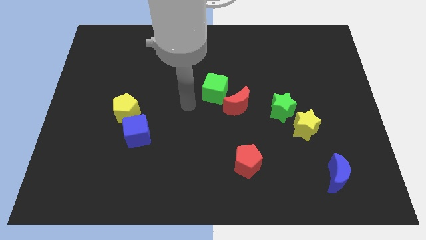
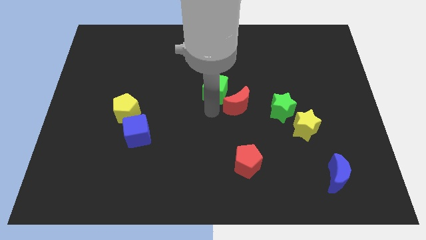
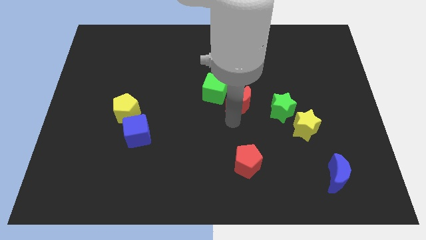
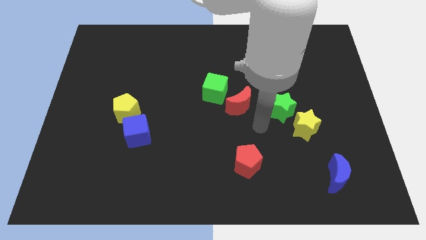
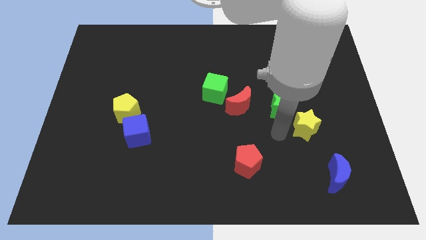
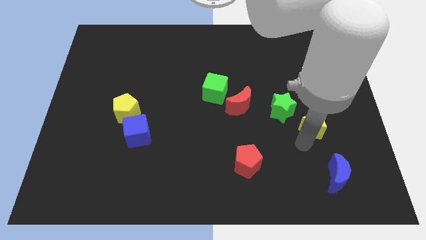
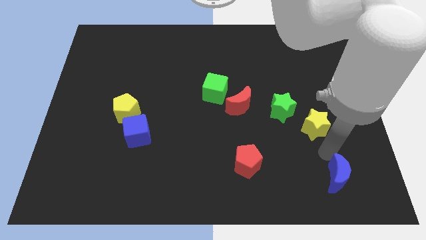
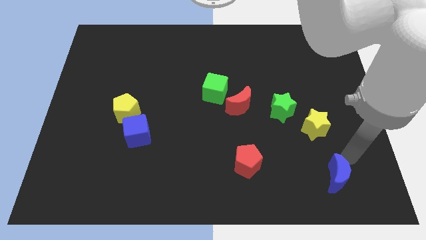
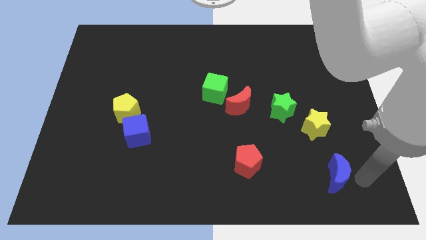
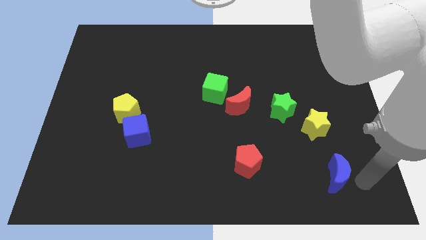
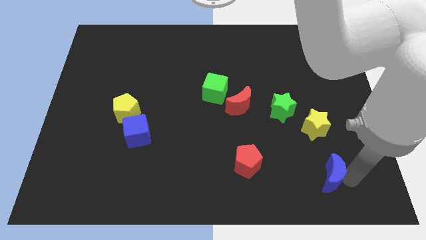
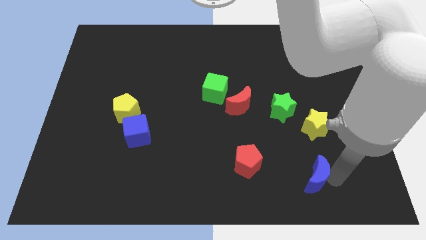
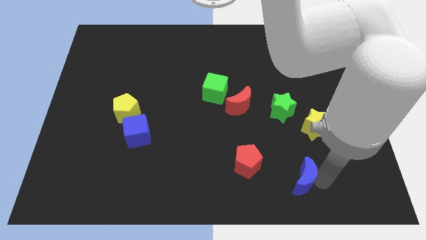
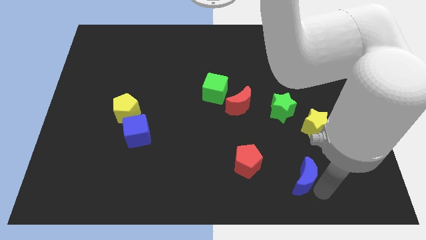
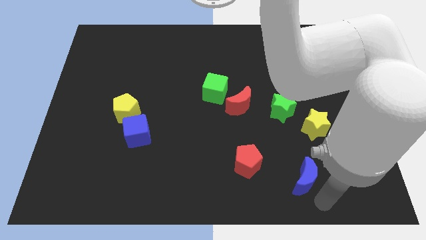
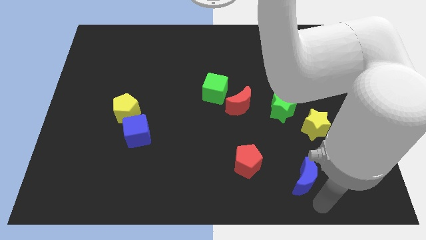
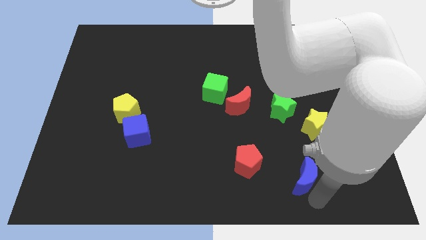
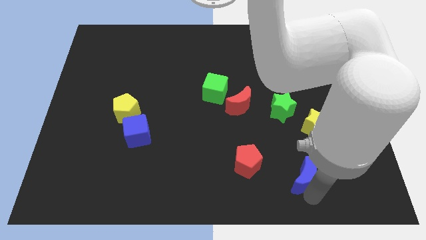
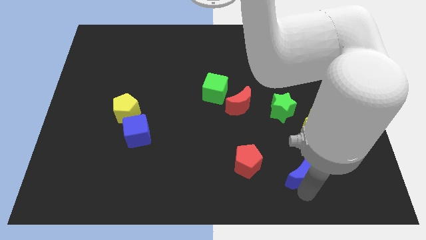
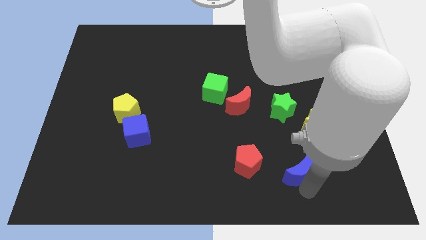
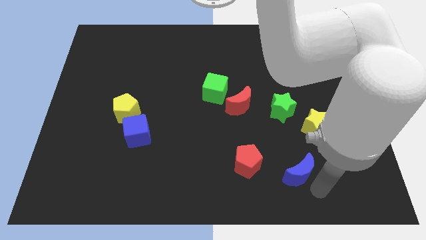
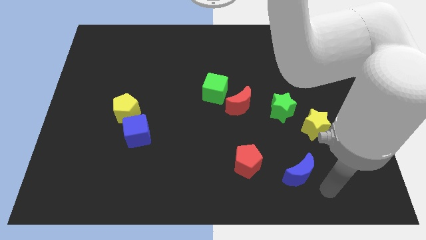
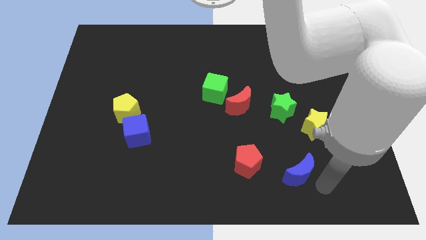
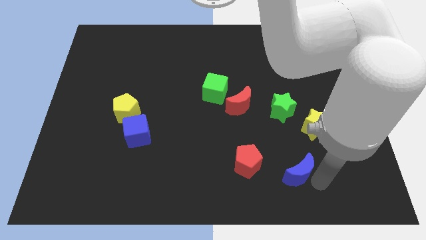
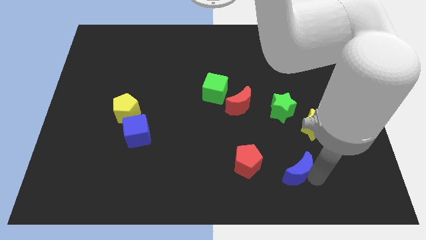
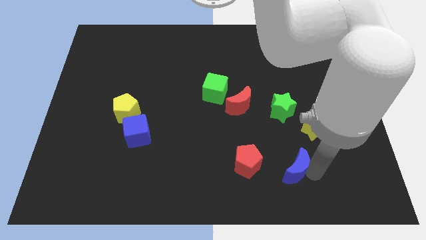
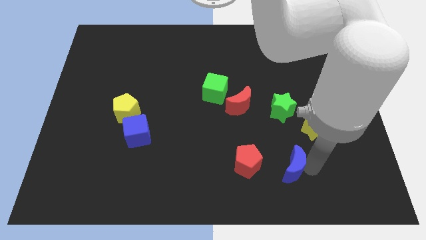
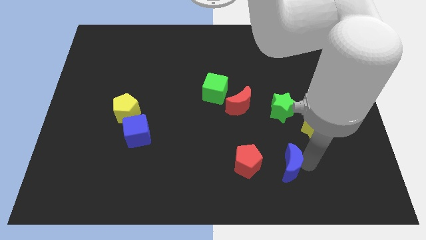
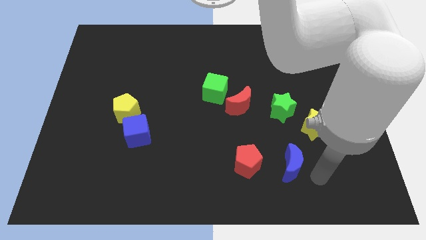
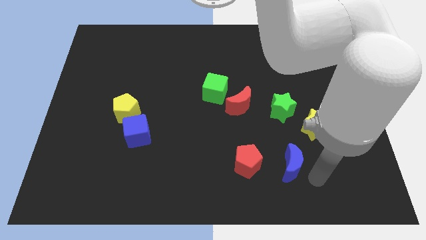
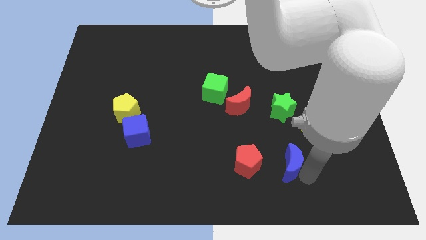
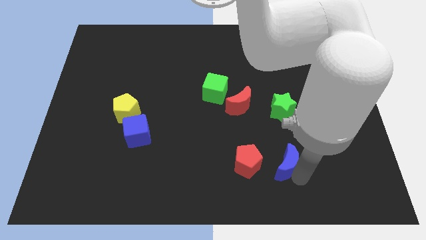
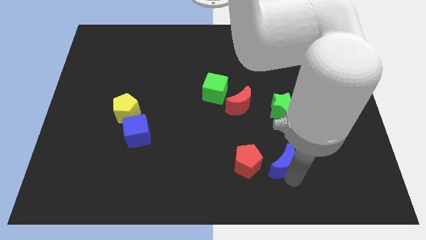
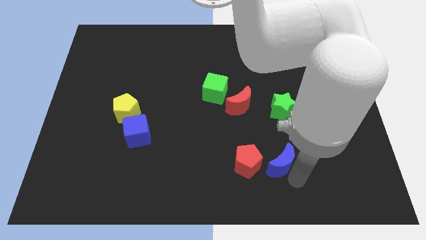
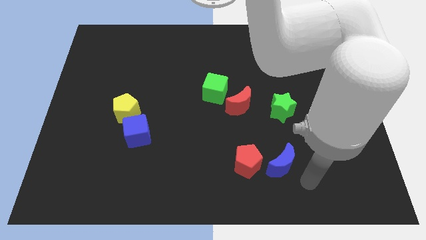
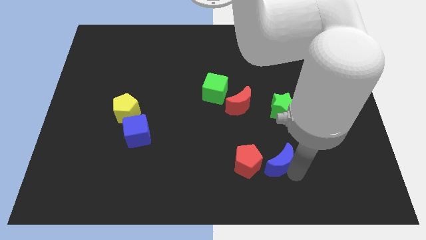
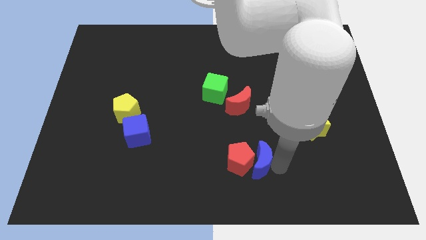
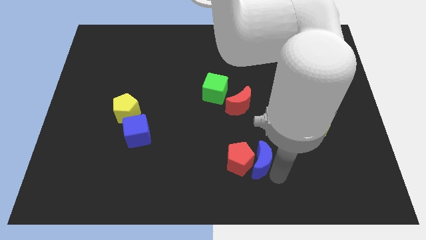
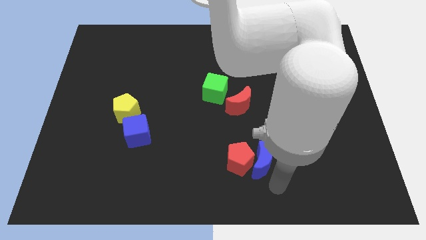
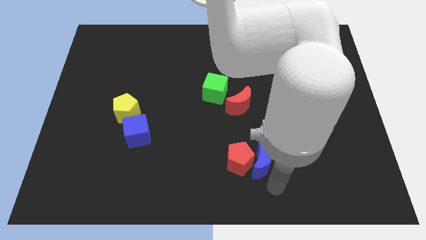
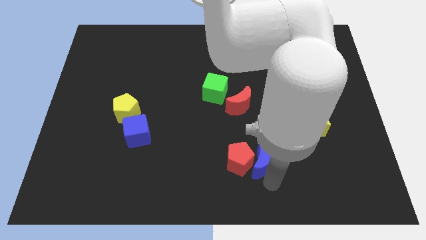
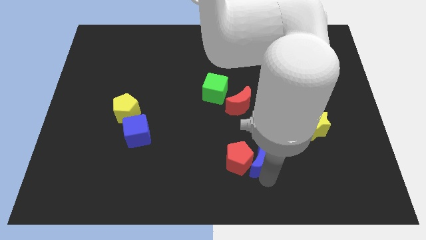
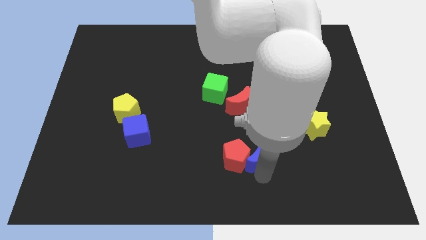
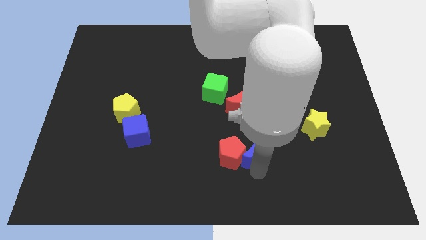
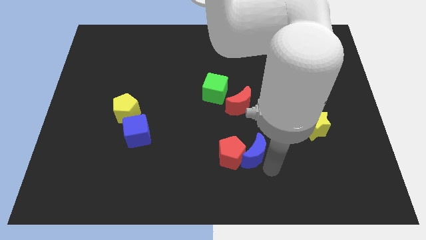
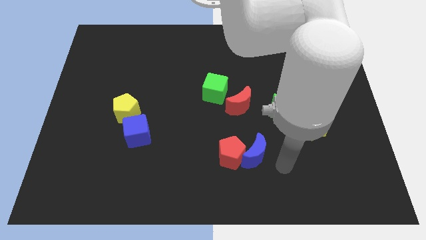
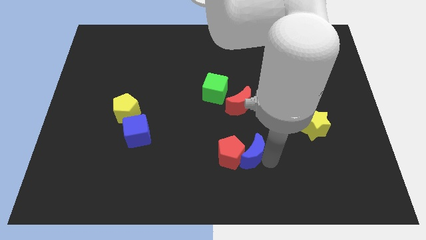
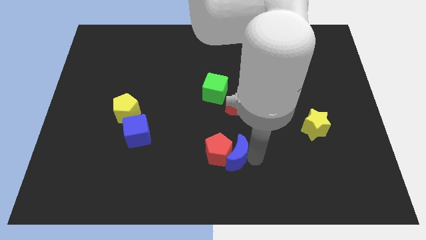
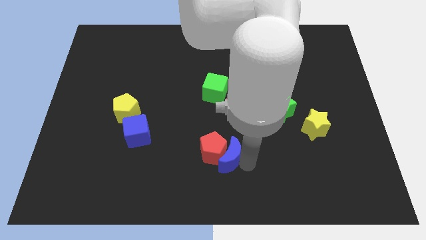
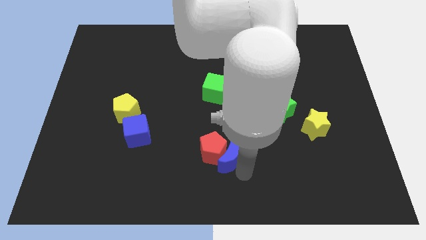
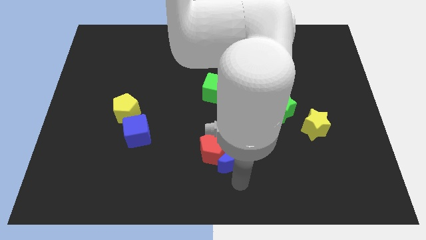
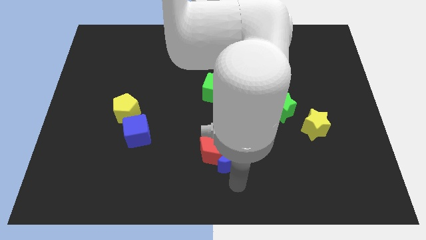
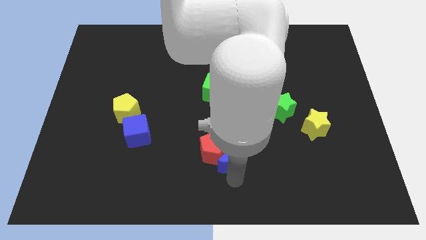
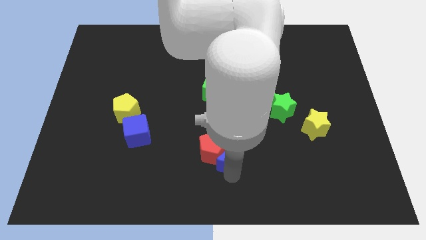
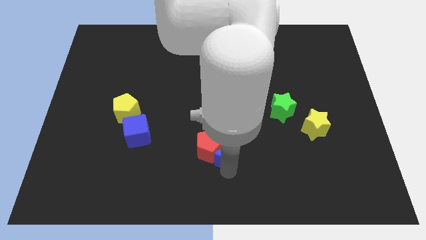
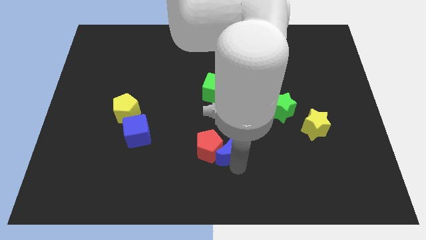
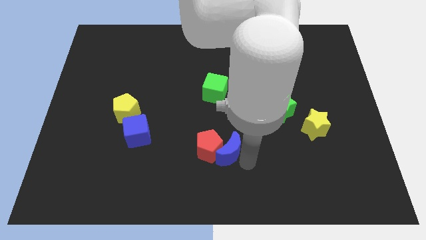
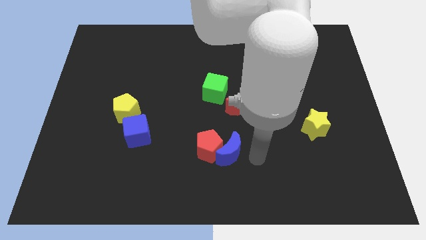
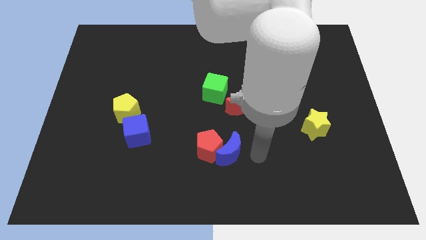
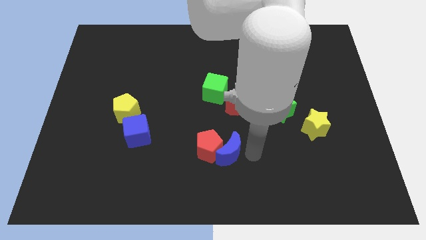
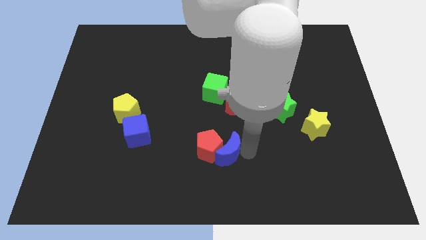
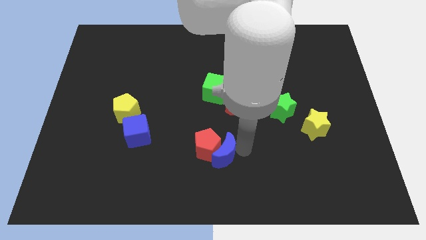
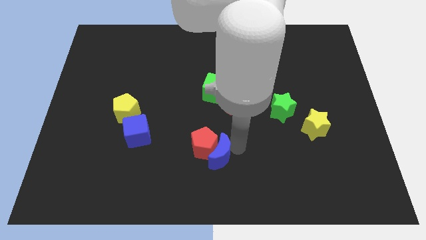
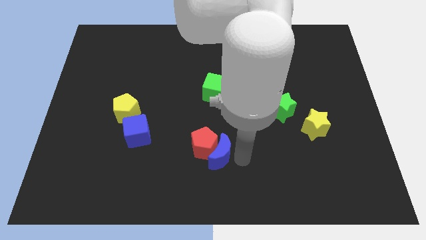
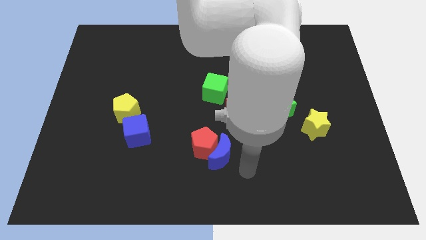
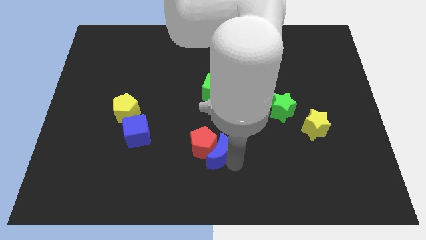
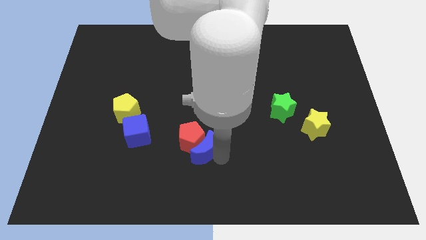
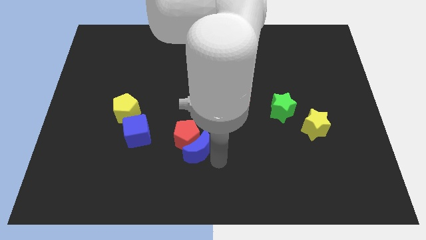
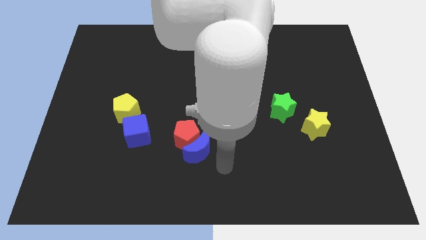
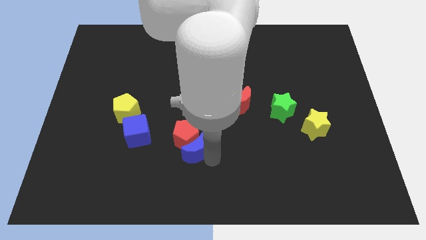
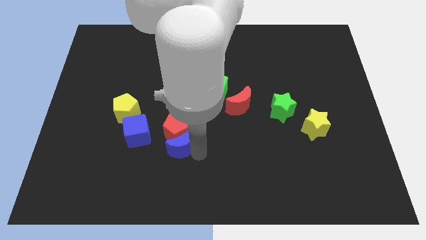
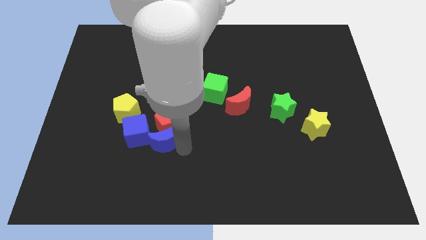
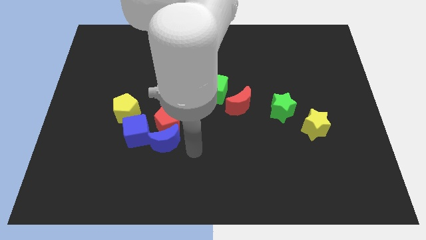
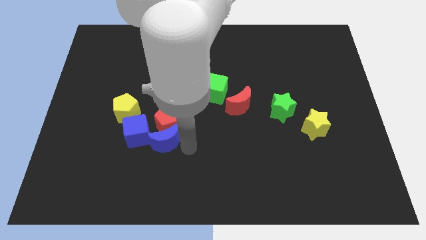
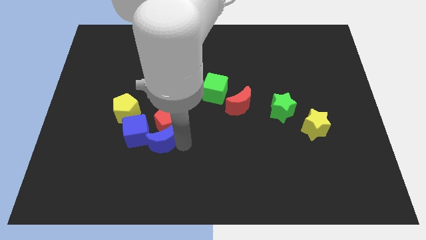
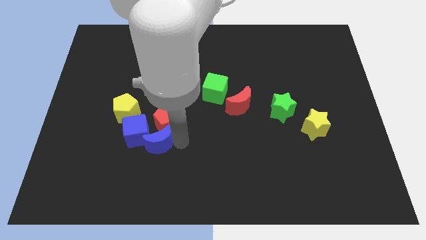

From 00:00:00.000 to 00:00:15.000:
slide the blue moon to the blue cube
